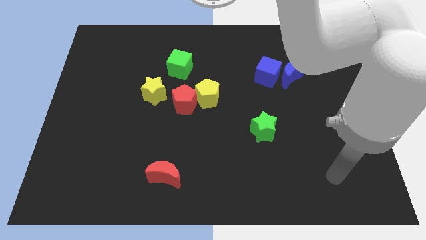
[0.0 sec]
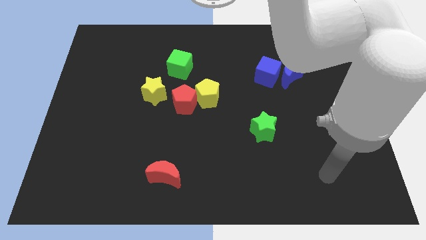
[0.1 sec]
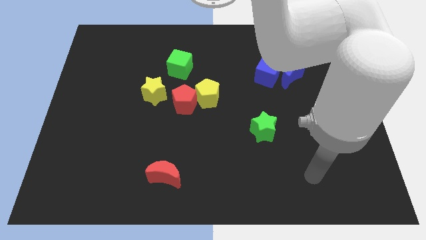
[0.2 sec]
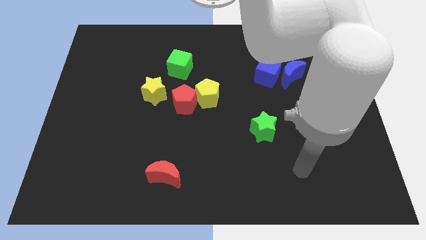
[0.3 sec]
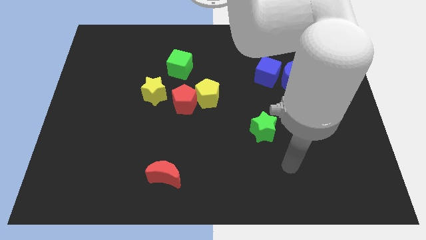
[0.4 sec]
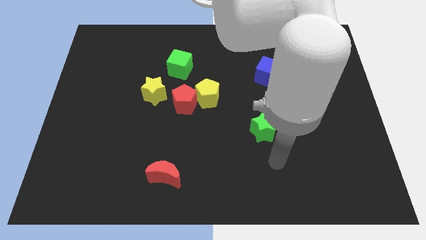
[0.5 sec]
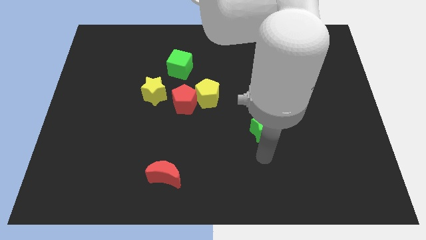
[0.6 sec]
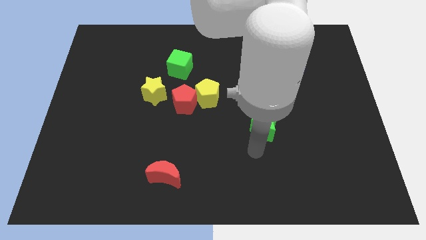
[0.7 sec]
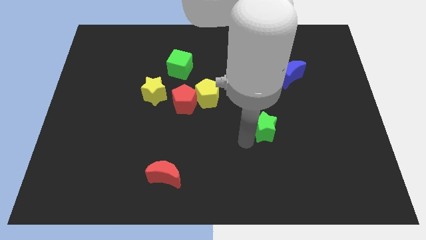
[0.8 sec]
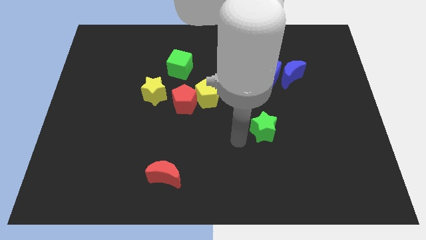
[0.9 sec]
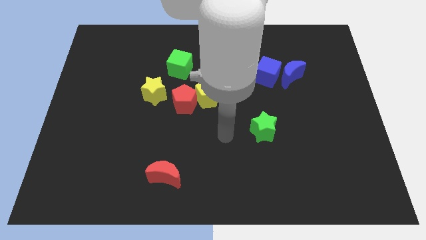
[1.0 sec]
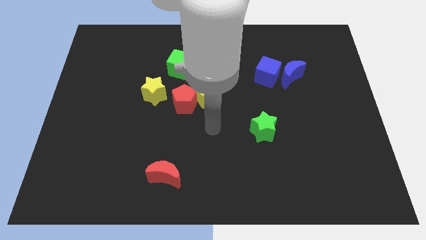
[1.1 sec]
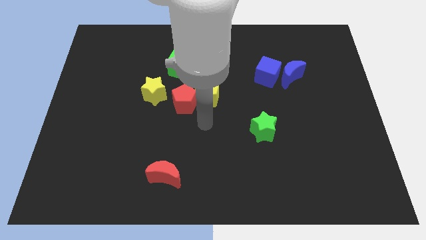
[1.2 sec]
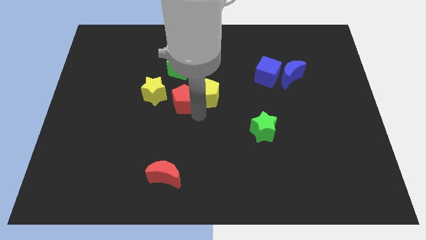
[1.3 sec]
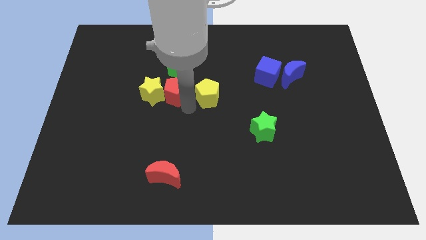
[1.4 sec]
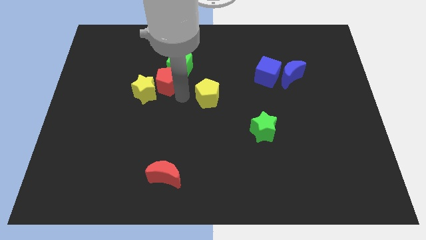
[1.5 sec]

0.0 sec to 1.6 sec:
pull the yellow pentagon apart from the red pentagon

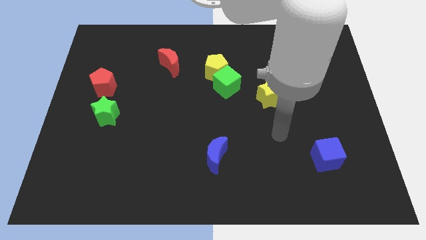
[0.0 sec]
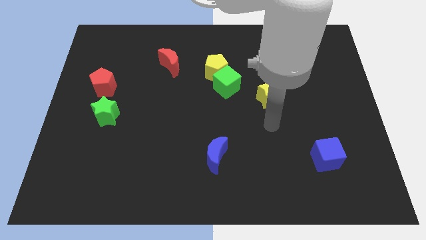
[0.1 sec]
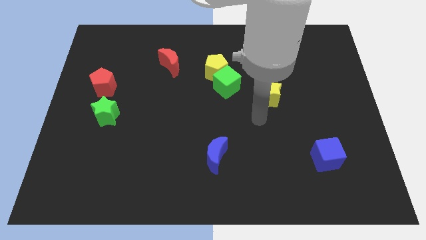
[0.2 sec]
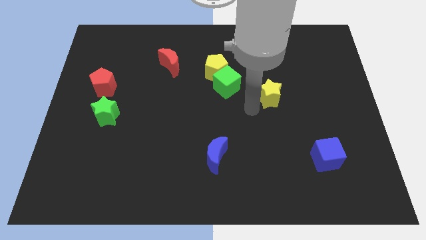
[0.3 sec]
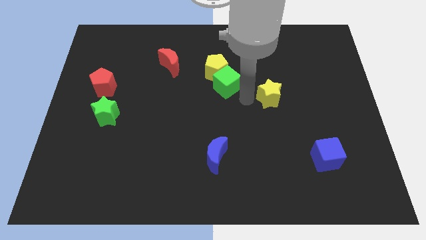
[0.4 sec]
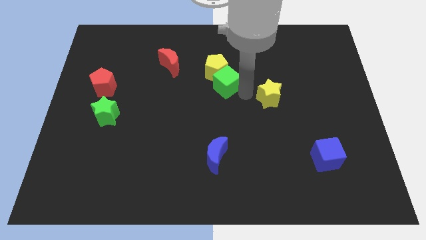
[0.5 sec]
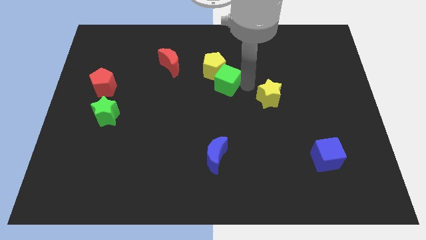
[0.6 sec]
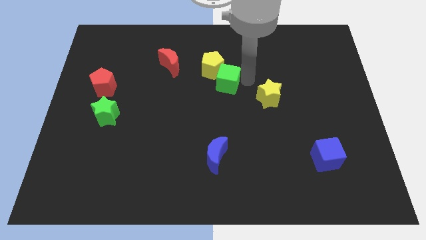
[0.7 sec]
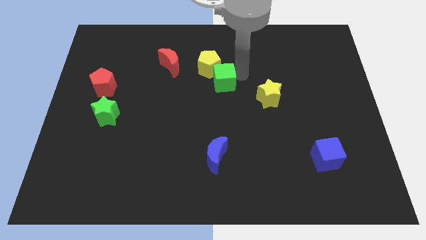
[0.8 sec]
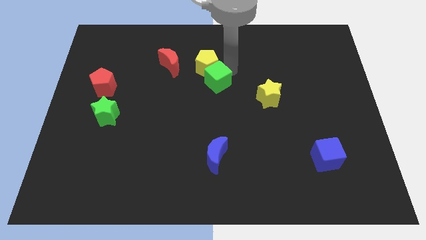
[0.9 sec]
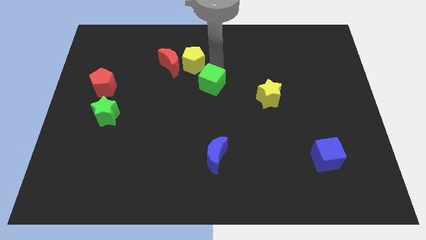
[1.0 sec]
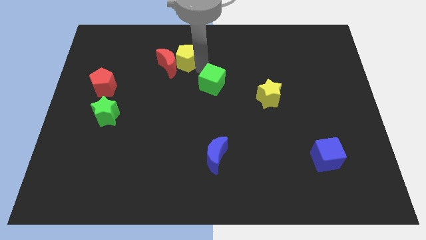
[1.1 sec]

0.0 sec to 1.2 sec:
pull the green cube apart from the yellow pentagon

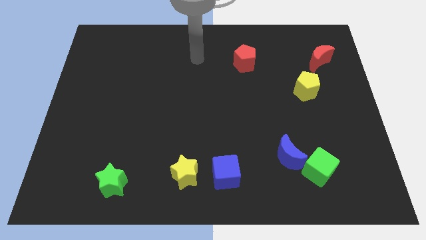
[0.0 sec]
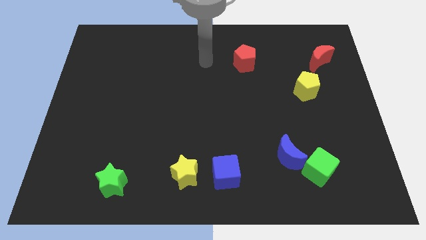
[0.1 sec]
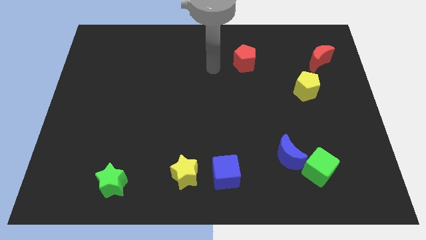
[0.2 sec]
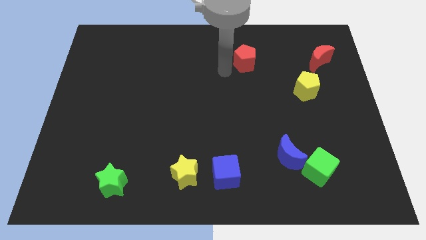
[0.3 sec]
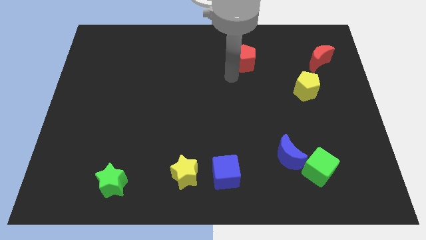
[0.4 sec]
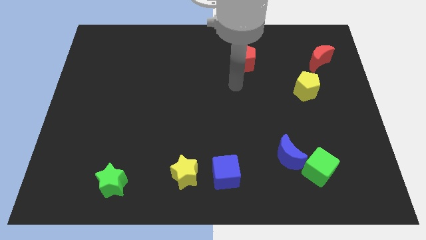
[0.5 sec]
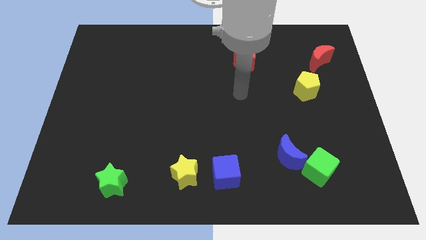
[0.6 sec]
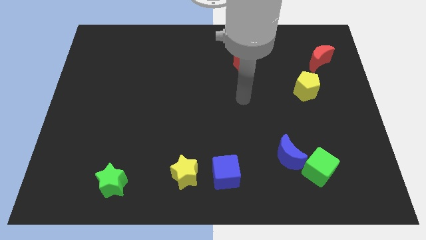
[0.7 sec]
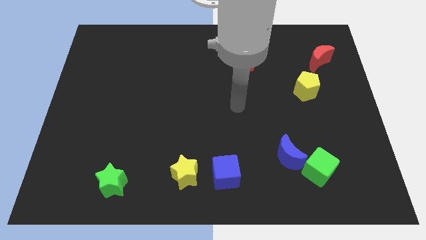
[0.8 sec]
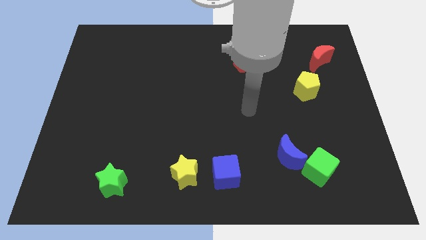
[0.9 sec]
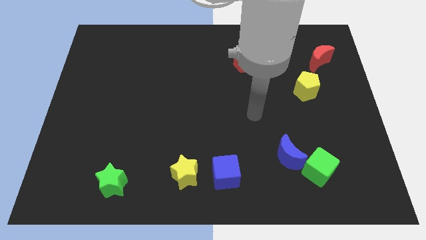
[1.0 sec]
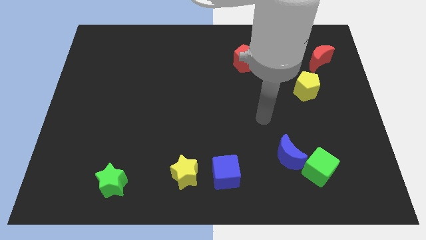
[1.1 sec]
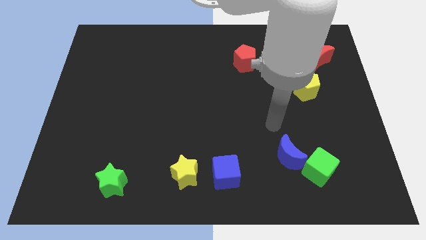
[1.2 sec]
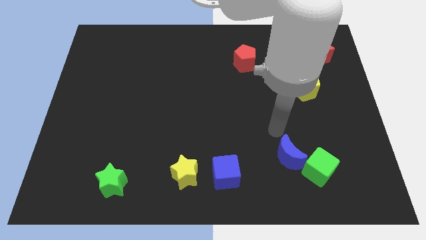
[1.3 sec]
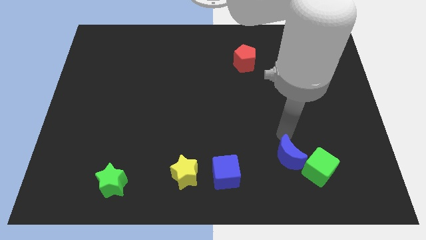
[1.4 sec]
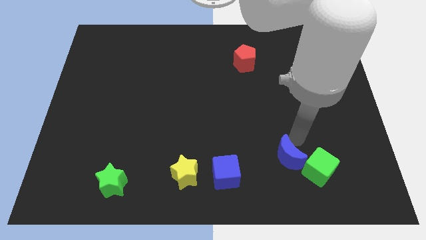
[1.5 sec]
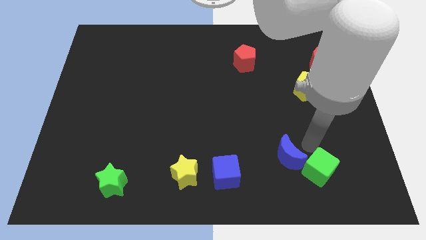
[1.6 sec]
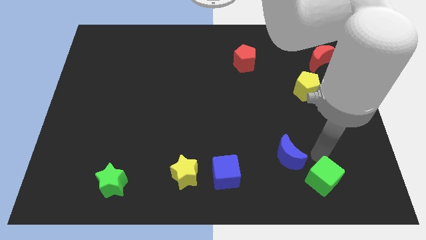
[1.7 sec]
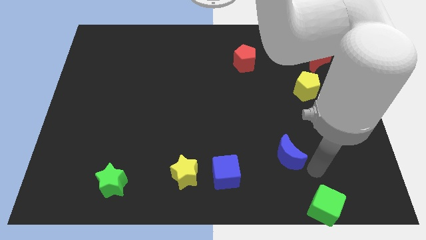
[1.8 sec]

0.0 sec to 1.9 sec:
pull the blue moon apart from the green cube

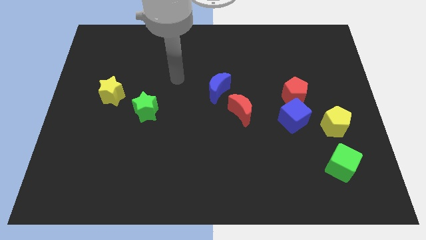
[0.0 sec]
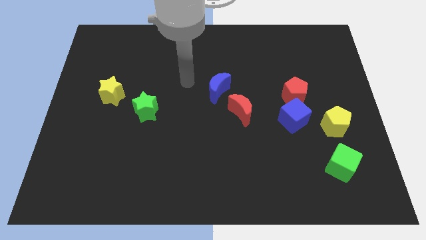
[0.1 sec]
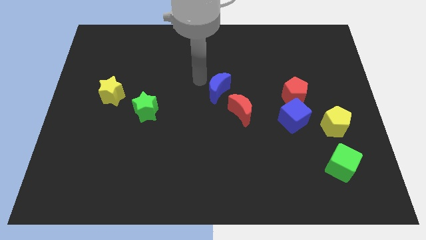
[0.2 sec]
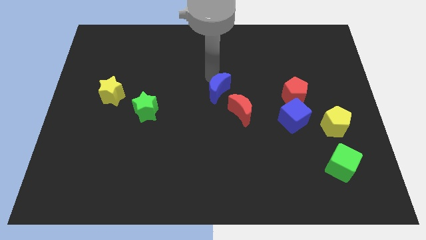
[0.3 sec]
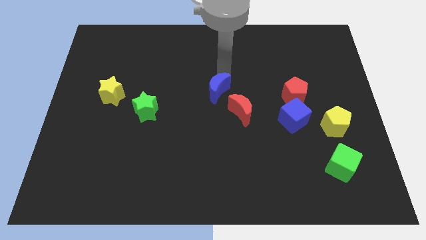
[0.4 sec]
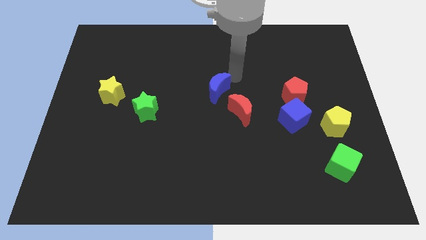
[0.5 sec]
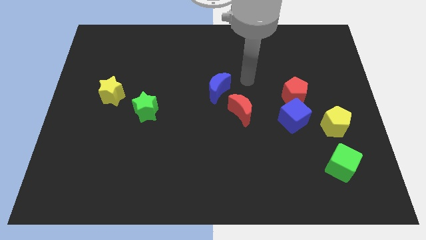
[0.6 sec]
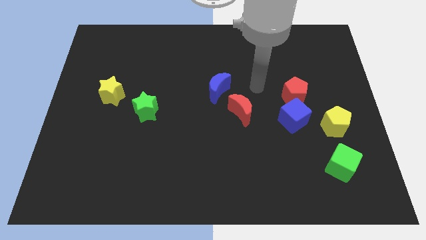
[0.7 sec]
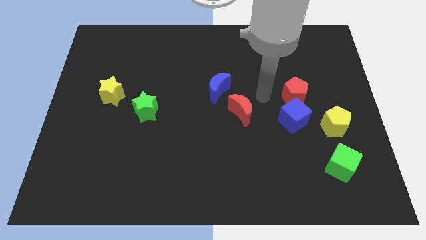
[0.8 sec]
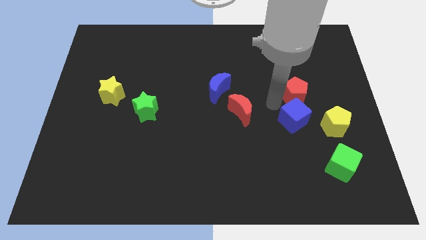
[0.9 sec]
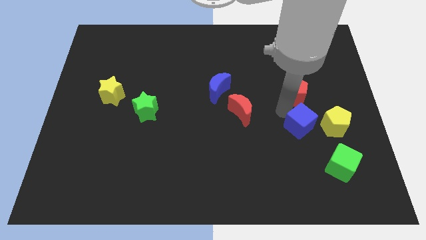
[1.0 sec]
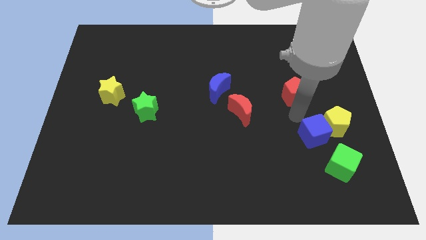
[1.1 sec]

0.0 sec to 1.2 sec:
pull the red pentagon apart from the blue cube

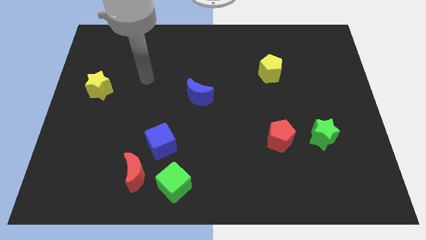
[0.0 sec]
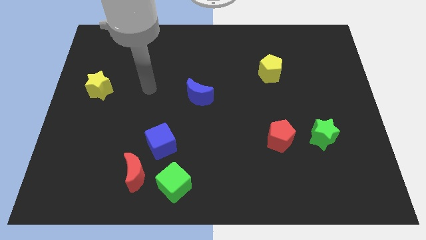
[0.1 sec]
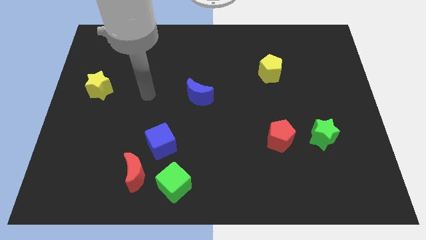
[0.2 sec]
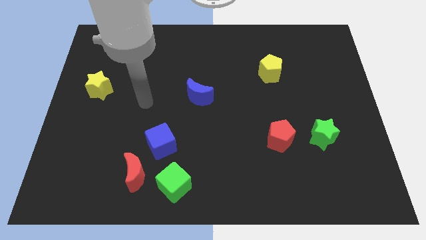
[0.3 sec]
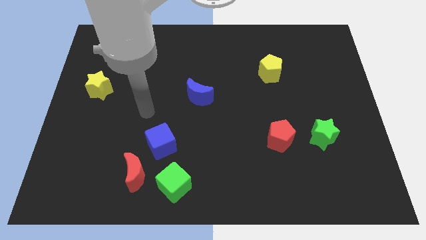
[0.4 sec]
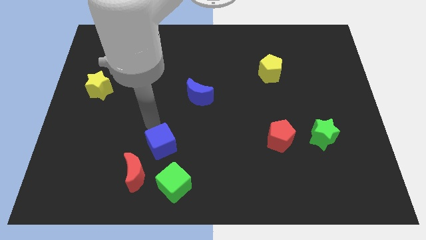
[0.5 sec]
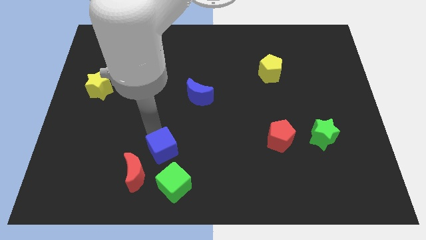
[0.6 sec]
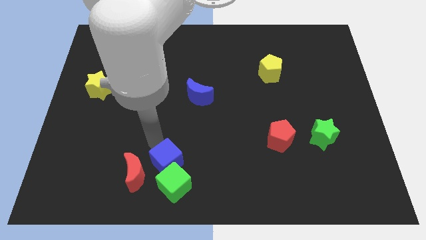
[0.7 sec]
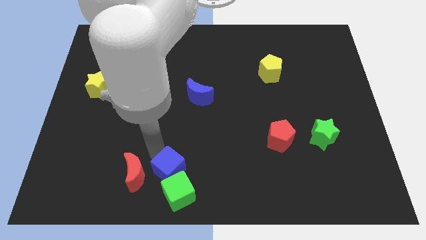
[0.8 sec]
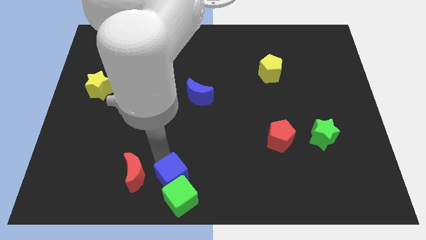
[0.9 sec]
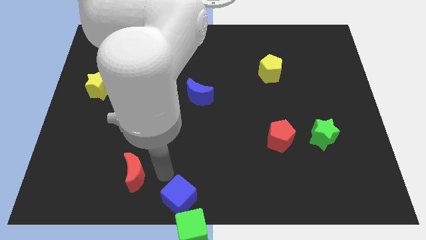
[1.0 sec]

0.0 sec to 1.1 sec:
separate the red moon from the green cube and blue cube

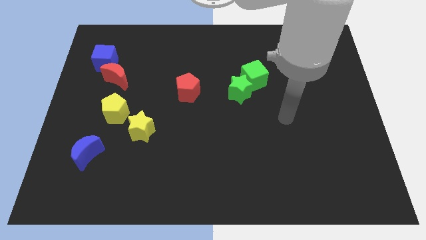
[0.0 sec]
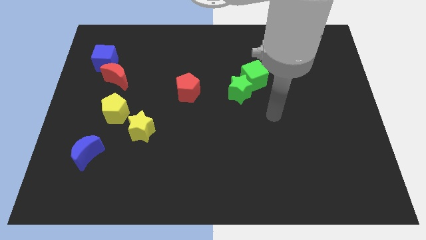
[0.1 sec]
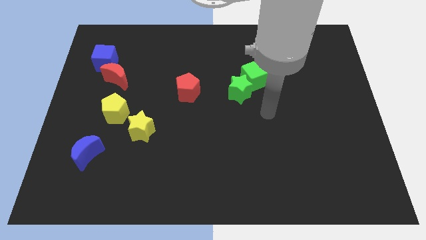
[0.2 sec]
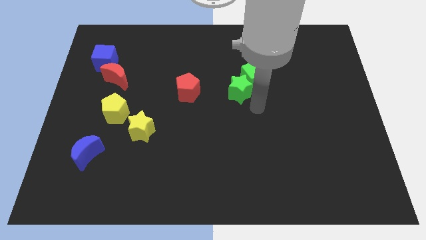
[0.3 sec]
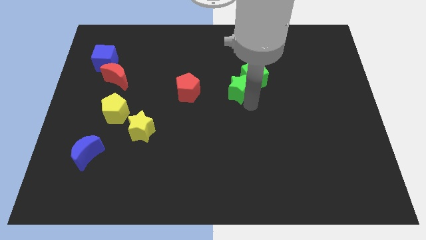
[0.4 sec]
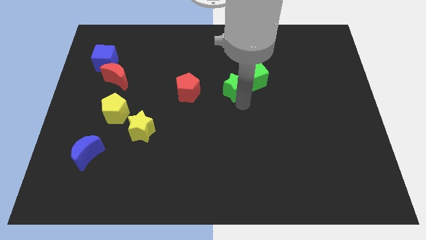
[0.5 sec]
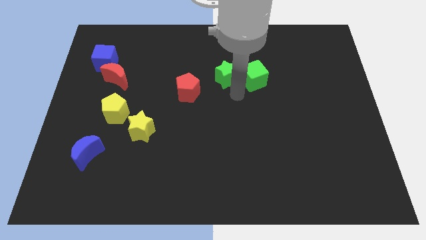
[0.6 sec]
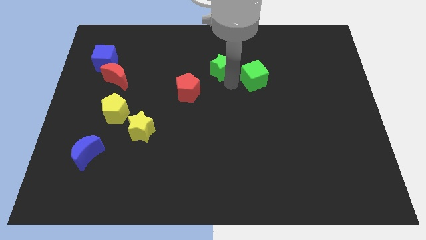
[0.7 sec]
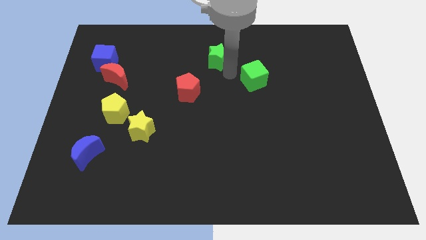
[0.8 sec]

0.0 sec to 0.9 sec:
separate the green cube from the green star

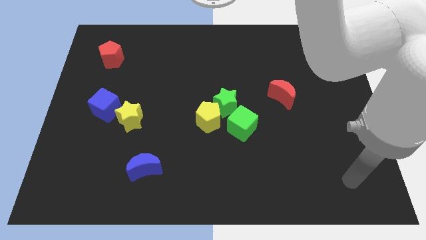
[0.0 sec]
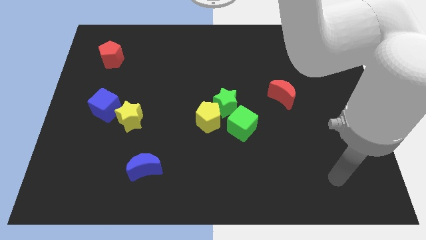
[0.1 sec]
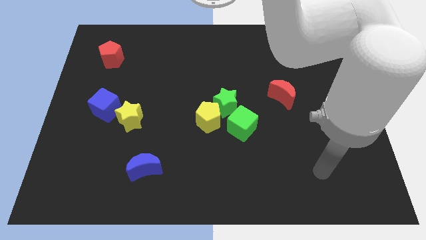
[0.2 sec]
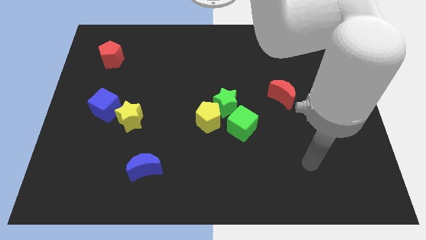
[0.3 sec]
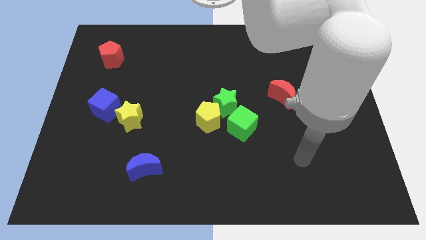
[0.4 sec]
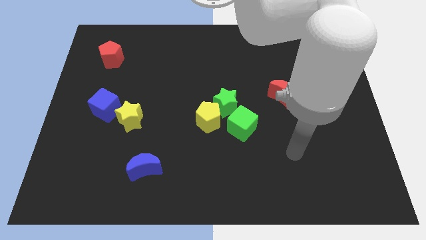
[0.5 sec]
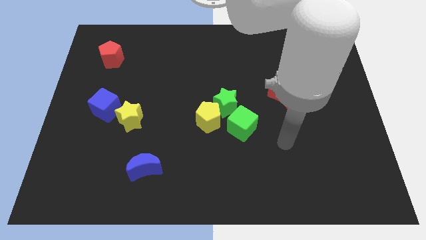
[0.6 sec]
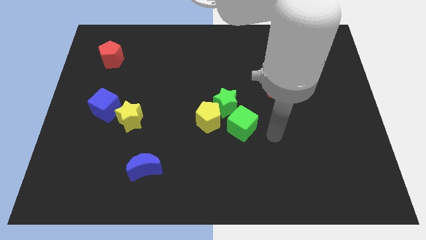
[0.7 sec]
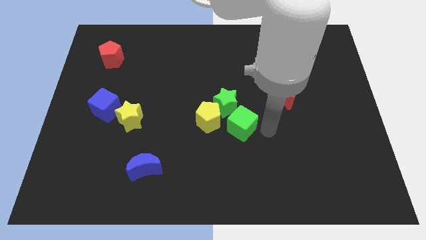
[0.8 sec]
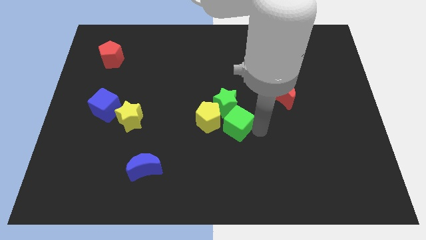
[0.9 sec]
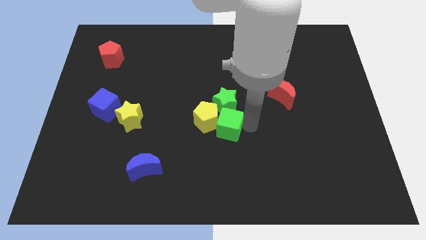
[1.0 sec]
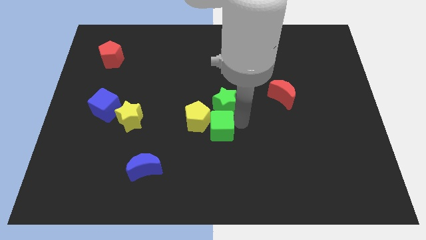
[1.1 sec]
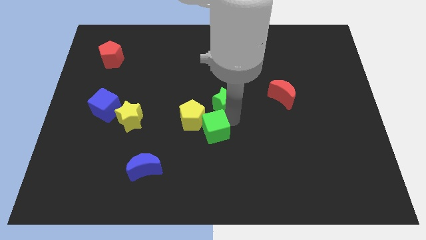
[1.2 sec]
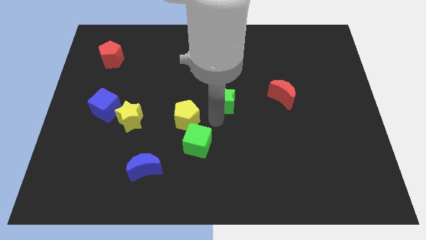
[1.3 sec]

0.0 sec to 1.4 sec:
separate the green star from the yellow pentagon and green cube
